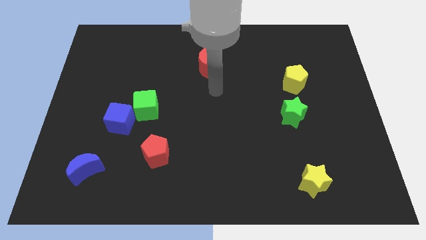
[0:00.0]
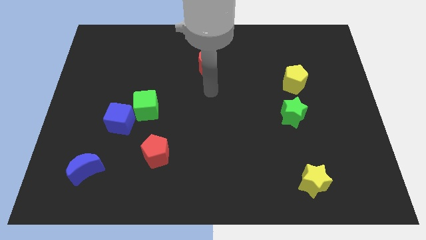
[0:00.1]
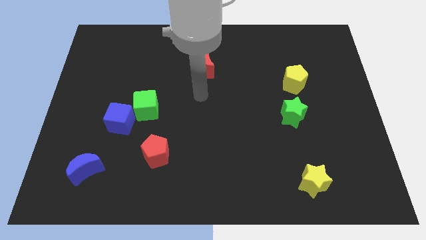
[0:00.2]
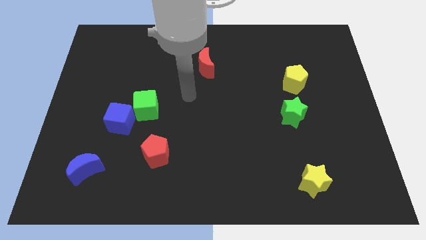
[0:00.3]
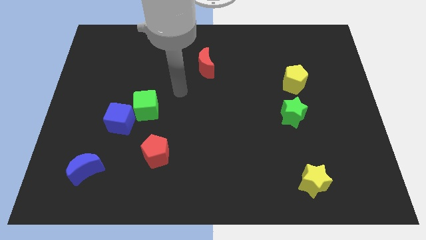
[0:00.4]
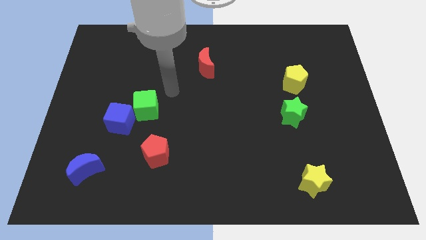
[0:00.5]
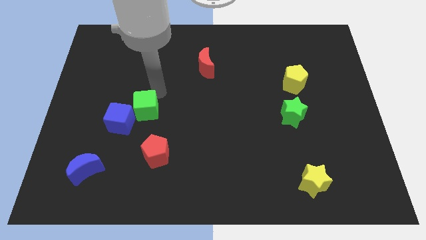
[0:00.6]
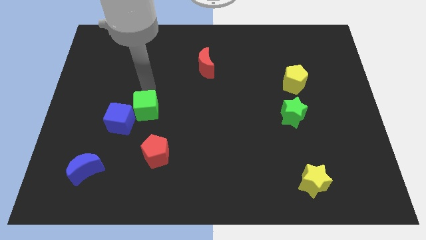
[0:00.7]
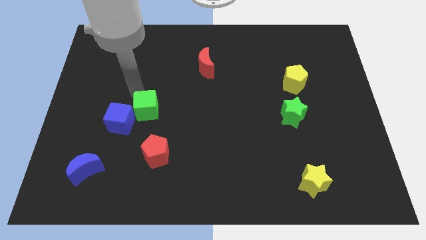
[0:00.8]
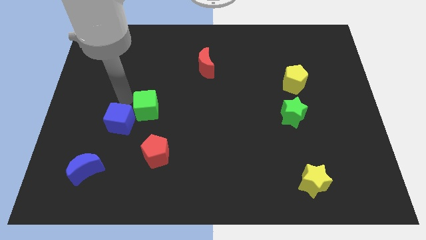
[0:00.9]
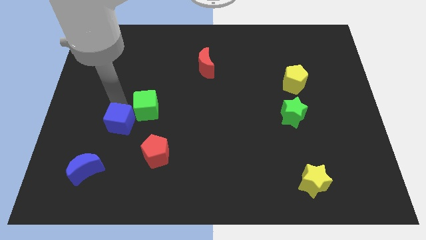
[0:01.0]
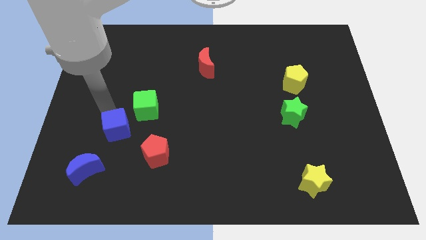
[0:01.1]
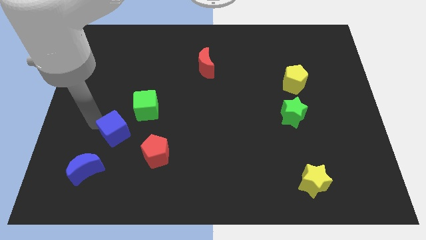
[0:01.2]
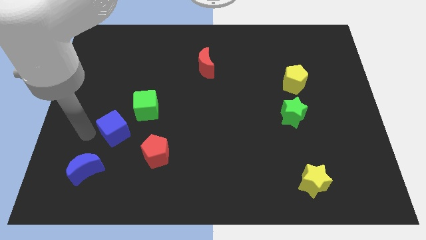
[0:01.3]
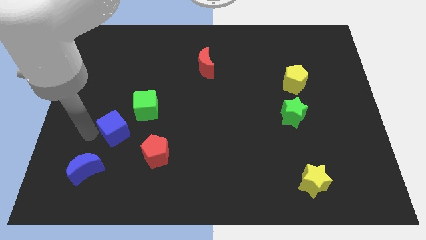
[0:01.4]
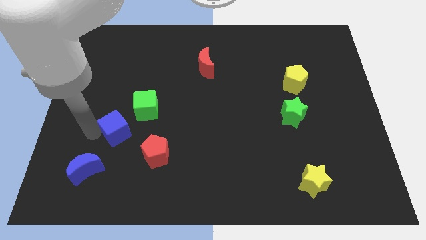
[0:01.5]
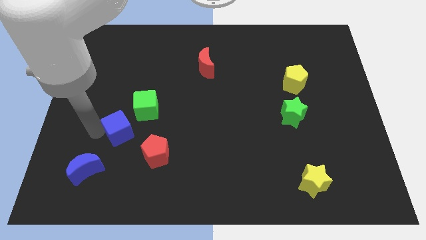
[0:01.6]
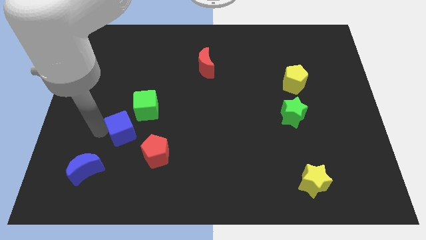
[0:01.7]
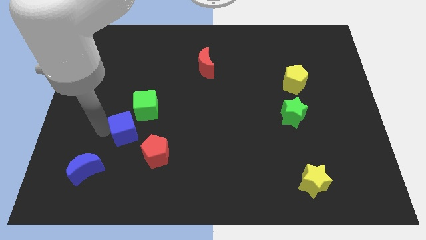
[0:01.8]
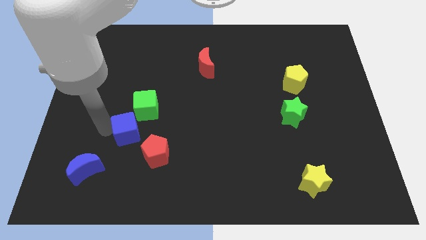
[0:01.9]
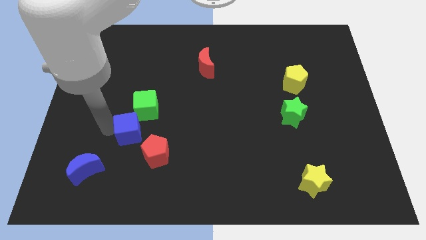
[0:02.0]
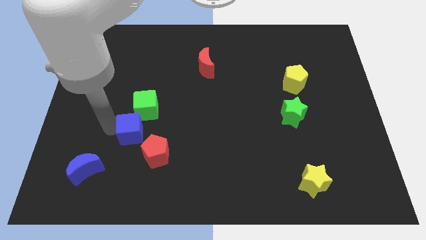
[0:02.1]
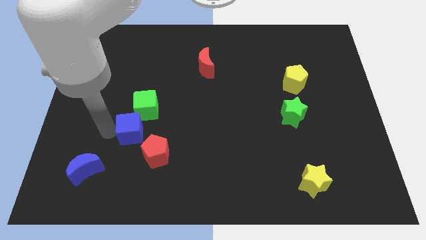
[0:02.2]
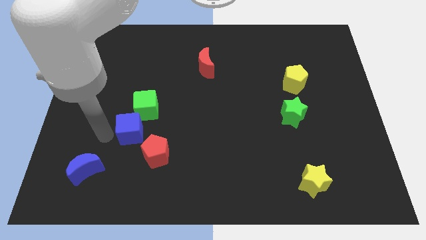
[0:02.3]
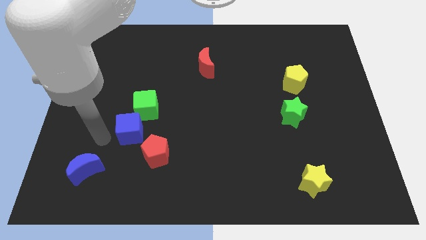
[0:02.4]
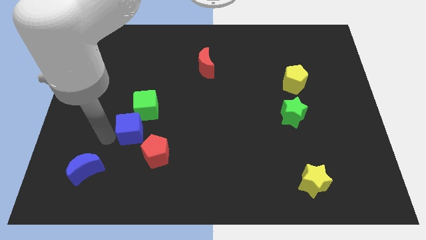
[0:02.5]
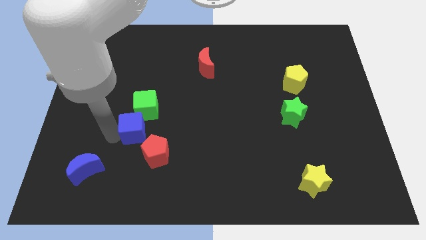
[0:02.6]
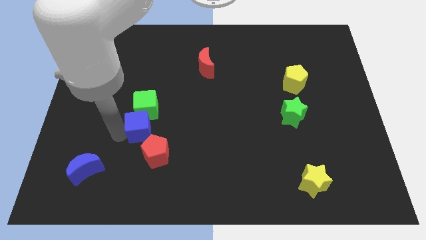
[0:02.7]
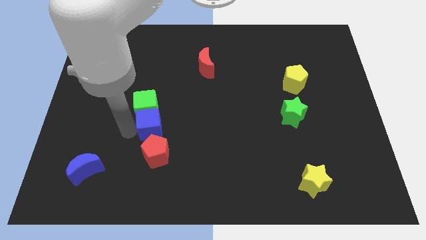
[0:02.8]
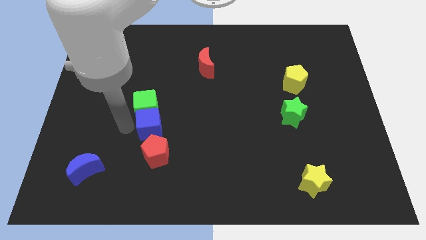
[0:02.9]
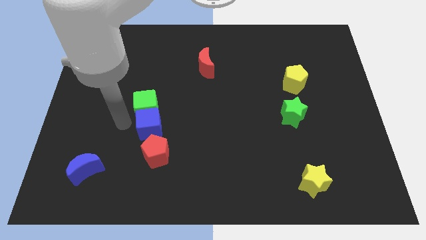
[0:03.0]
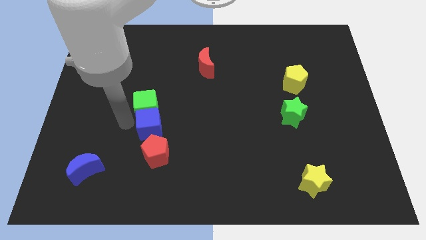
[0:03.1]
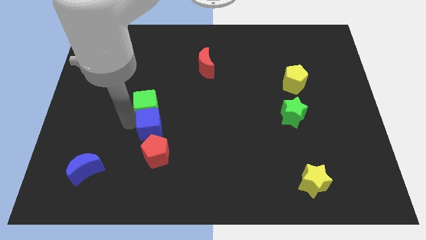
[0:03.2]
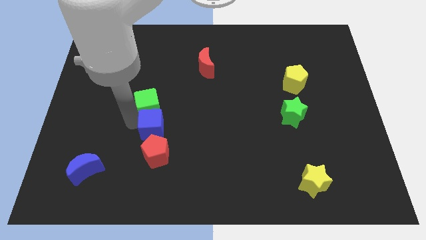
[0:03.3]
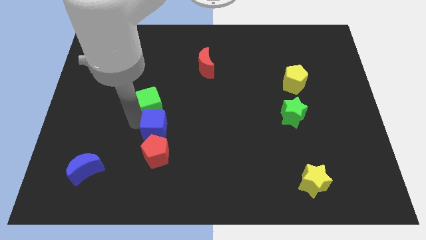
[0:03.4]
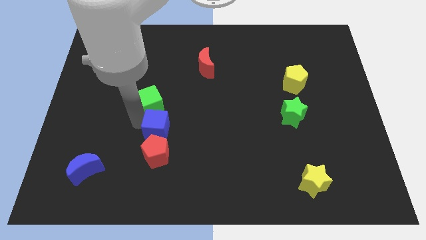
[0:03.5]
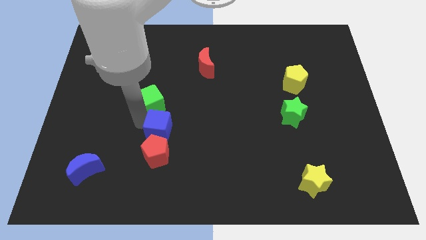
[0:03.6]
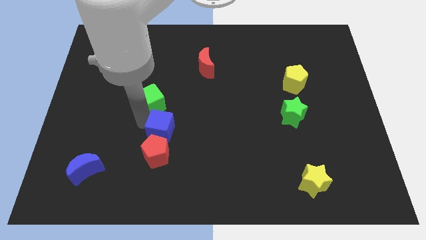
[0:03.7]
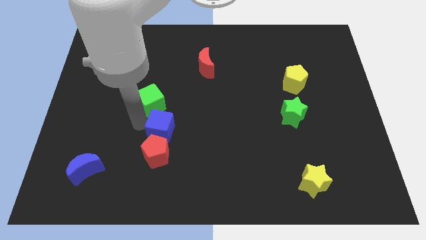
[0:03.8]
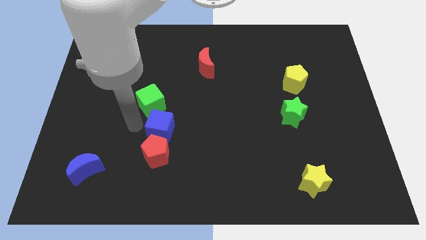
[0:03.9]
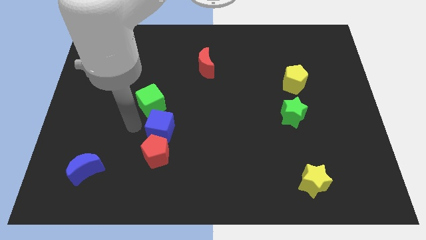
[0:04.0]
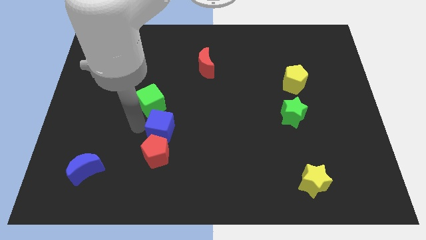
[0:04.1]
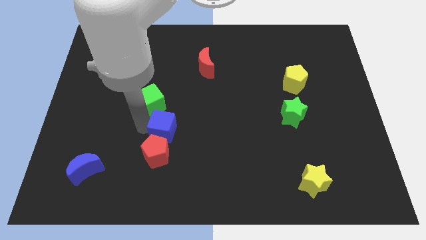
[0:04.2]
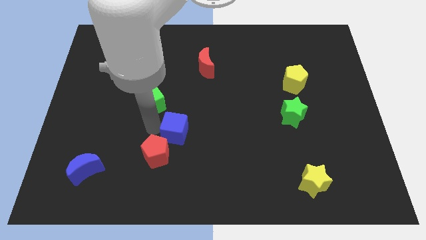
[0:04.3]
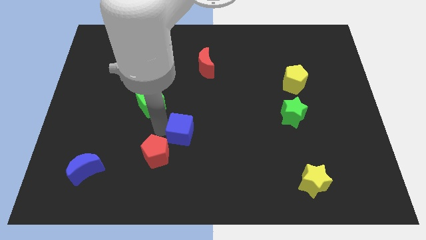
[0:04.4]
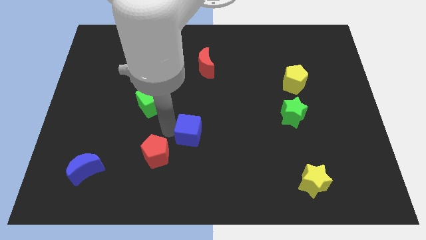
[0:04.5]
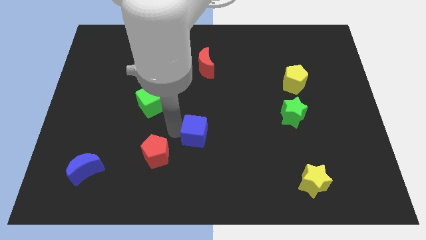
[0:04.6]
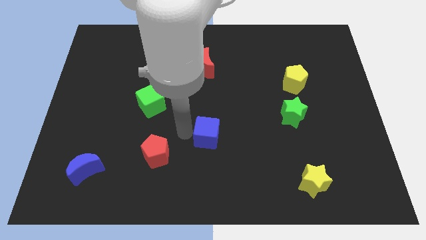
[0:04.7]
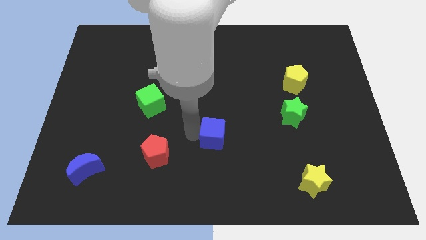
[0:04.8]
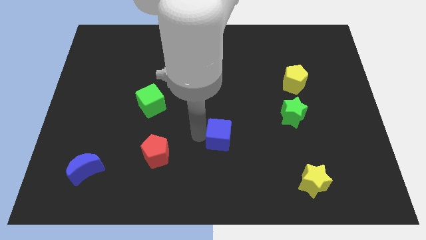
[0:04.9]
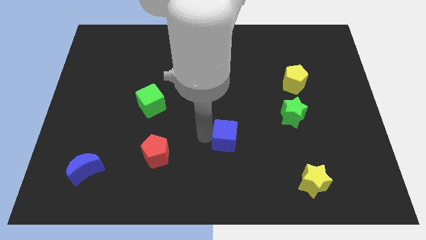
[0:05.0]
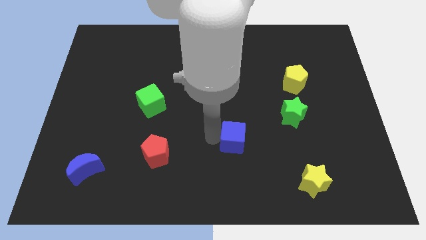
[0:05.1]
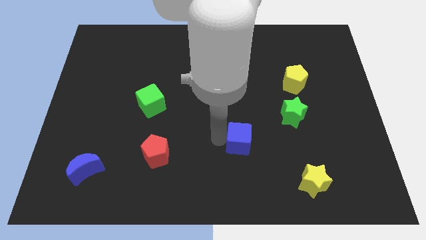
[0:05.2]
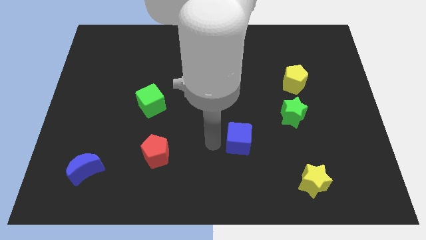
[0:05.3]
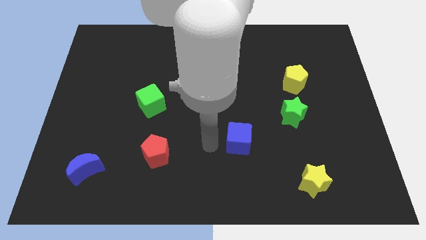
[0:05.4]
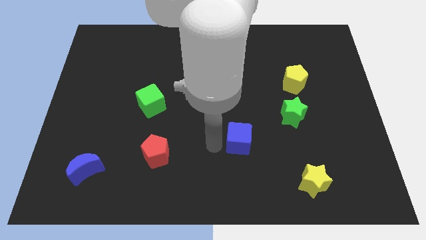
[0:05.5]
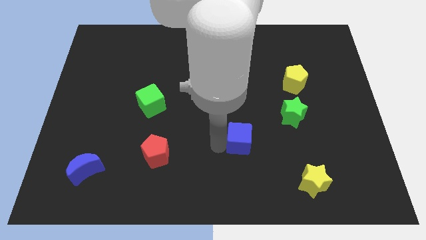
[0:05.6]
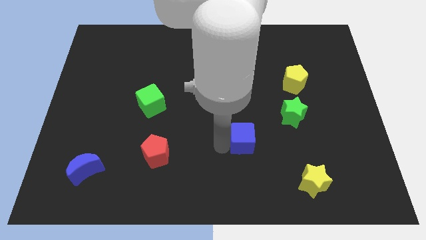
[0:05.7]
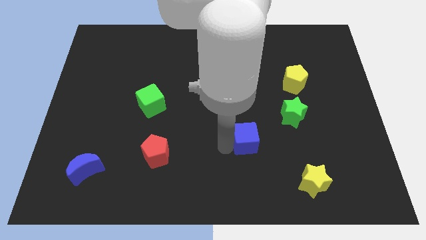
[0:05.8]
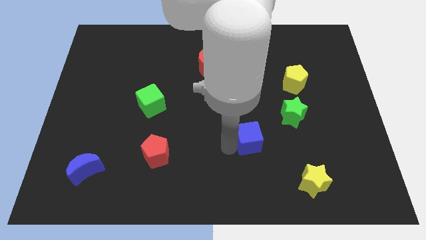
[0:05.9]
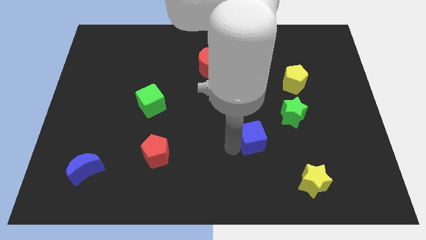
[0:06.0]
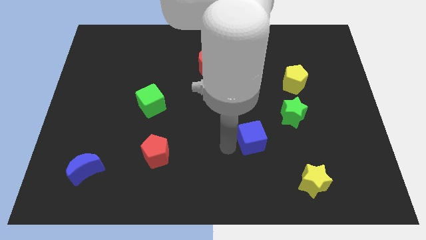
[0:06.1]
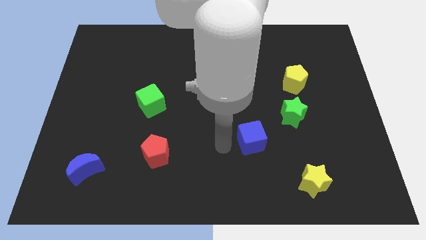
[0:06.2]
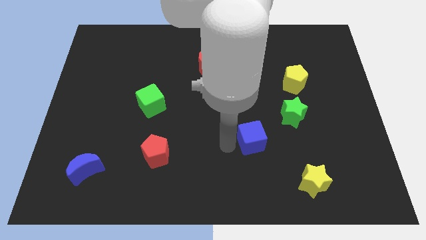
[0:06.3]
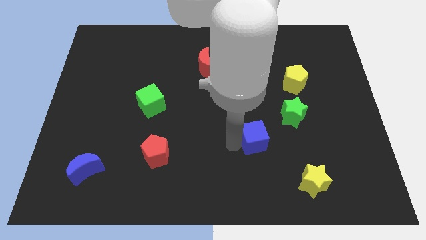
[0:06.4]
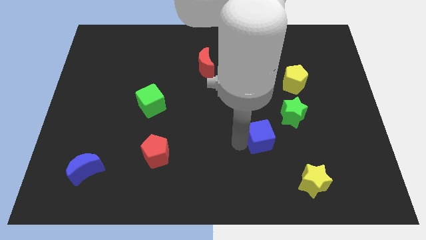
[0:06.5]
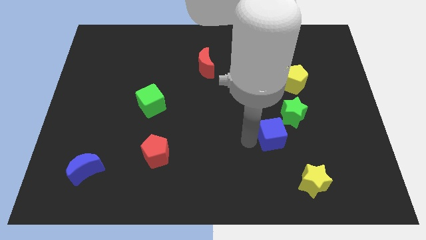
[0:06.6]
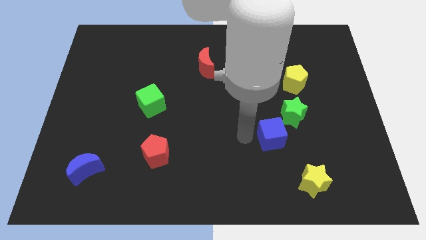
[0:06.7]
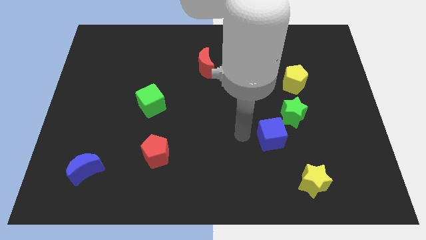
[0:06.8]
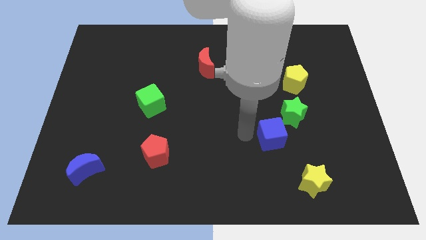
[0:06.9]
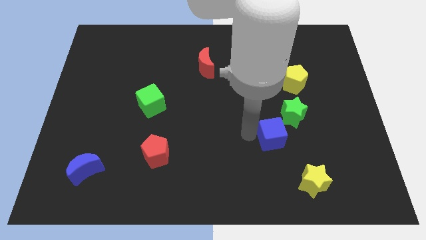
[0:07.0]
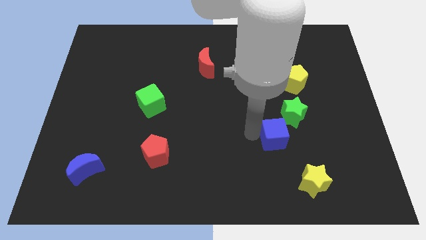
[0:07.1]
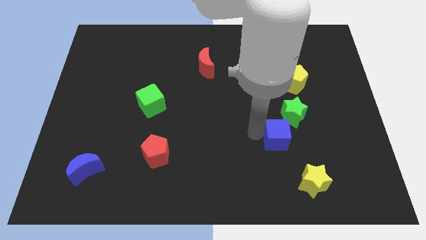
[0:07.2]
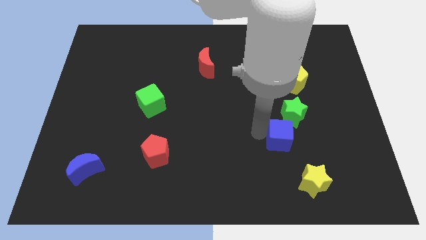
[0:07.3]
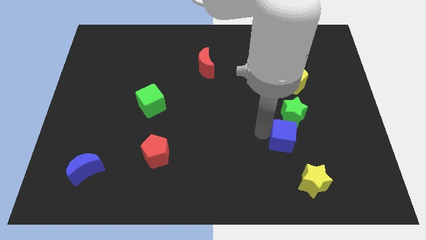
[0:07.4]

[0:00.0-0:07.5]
push the blue cube to the top of the yellow star
